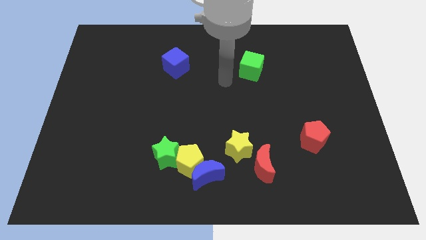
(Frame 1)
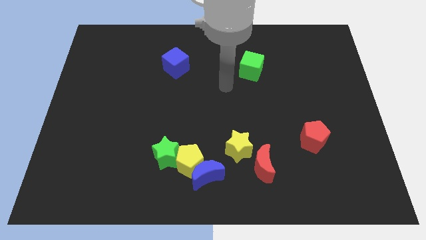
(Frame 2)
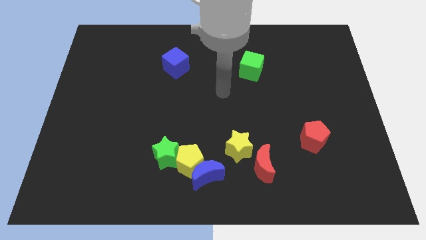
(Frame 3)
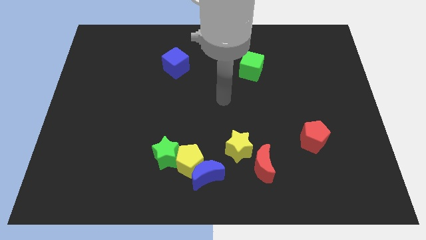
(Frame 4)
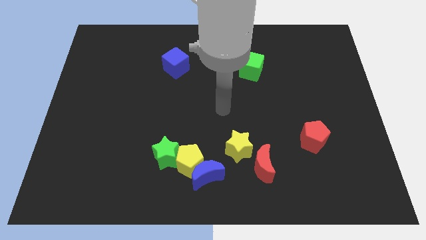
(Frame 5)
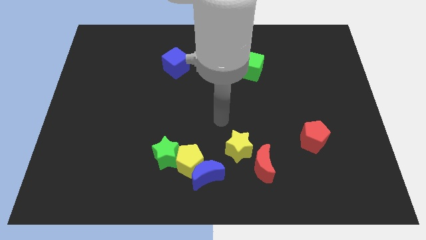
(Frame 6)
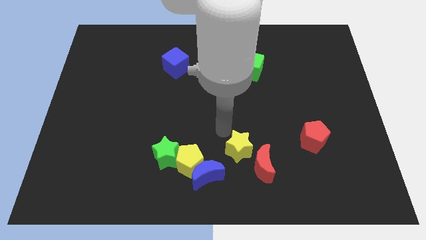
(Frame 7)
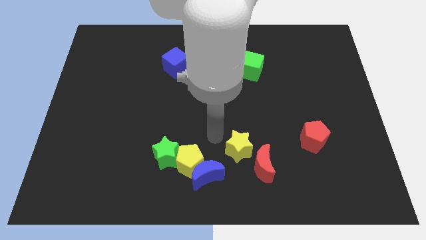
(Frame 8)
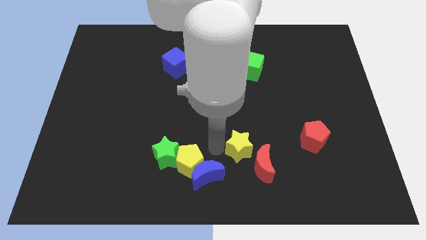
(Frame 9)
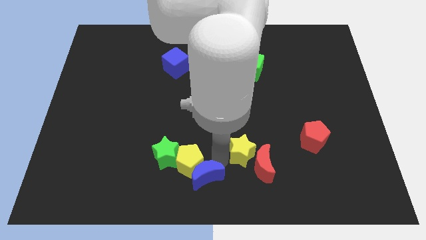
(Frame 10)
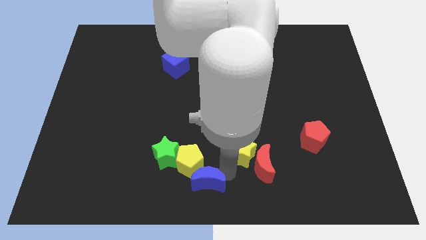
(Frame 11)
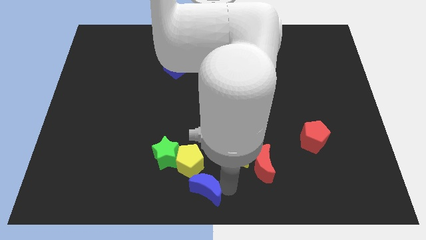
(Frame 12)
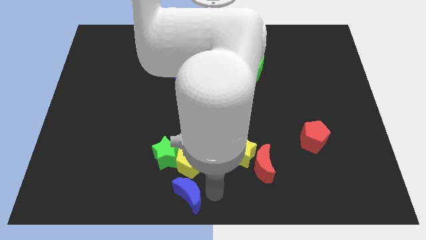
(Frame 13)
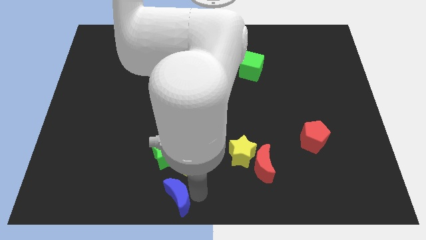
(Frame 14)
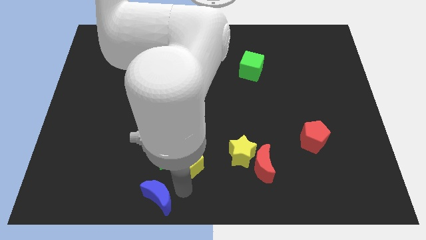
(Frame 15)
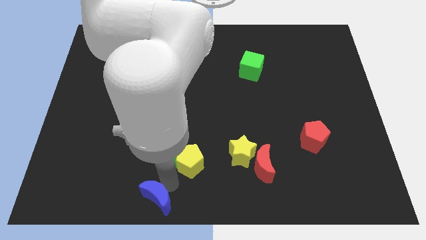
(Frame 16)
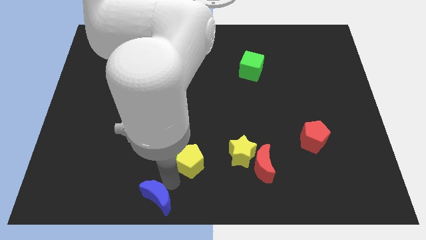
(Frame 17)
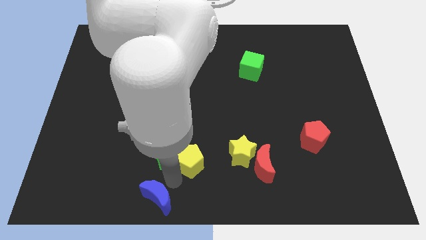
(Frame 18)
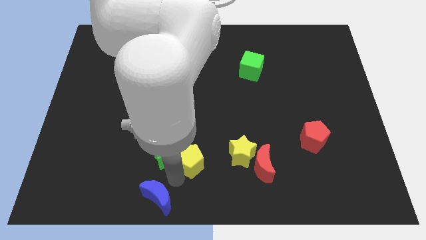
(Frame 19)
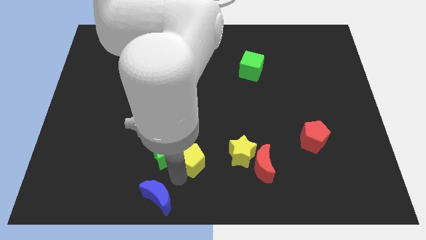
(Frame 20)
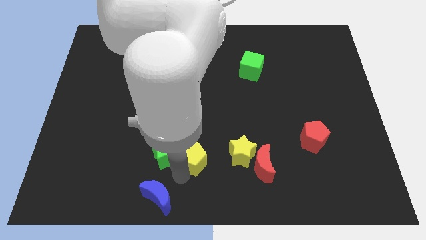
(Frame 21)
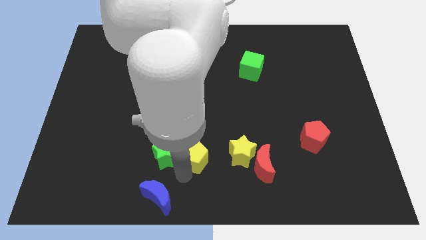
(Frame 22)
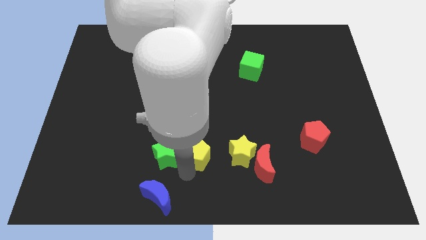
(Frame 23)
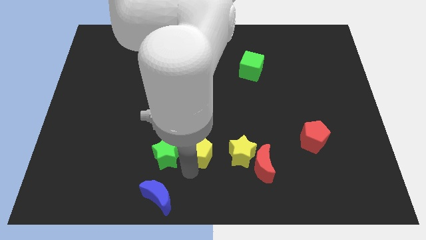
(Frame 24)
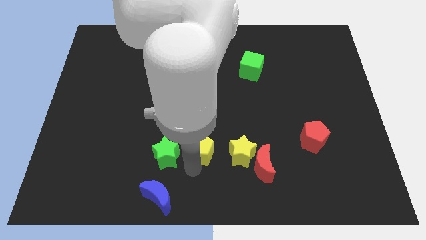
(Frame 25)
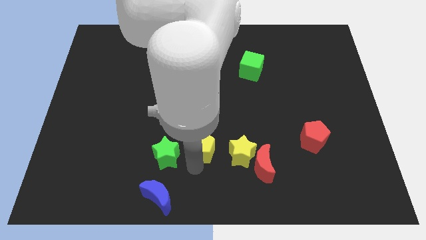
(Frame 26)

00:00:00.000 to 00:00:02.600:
separate the yellow pentagon from the blue moon and green star

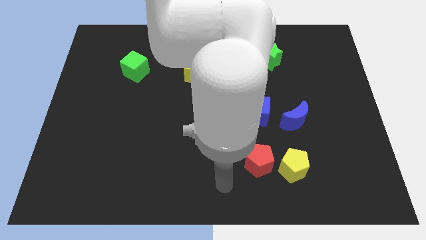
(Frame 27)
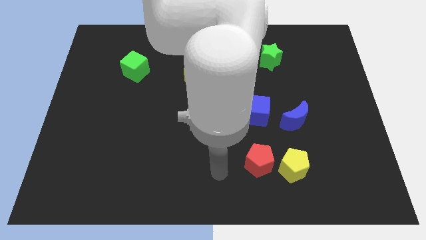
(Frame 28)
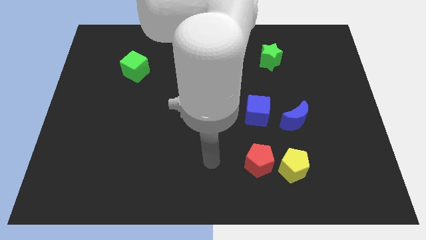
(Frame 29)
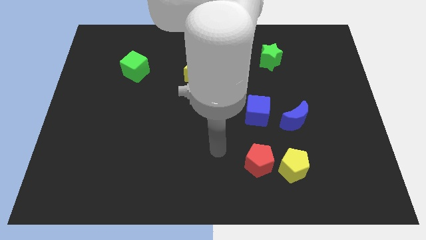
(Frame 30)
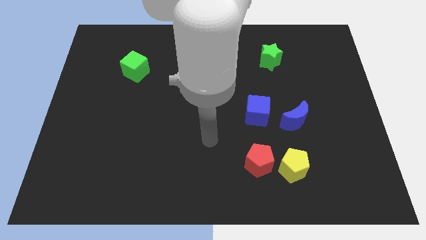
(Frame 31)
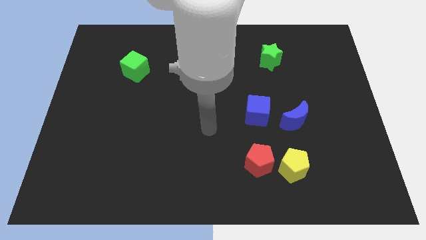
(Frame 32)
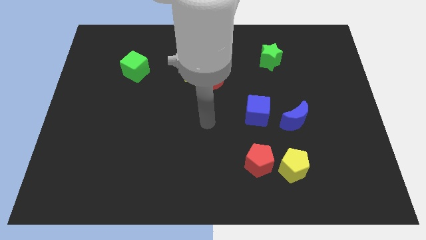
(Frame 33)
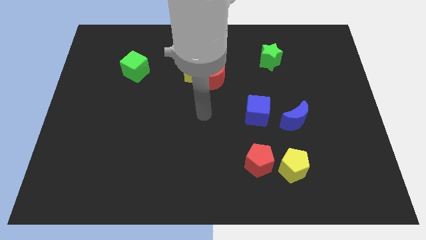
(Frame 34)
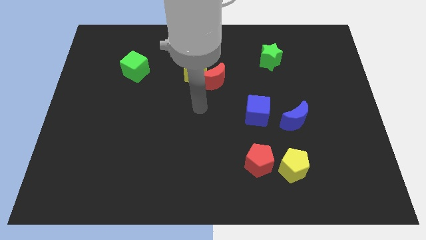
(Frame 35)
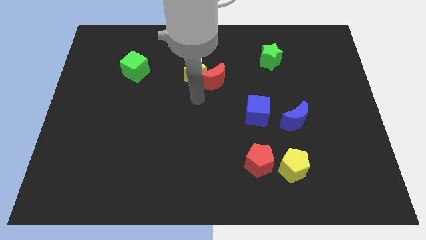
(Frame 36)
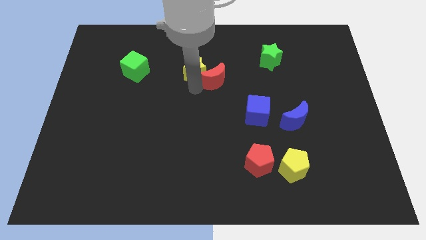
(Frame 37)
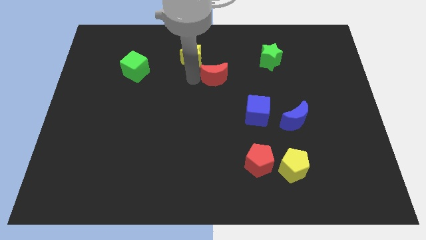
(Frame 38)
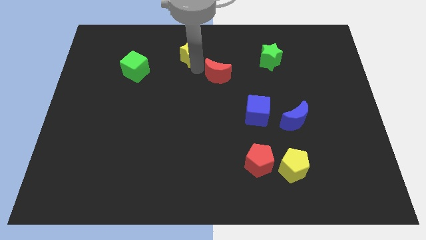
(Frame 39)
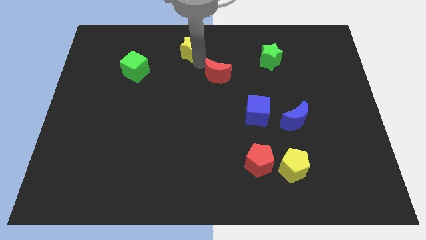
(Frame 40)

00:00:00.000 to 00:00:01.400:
pull the red moon apart from the yellow star

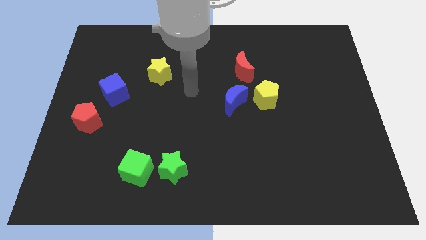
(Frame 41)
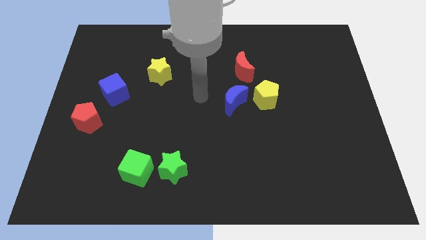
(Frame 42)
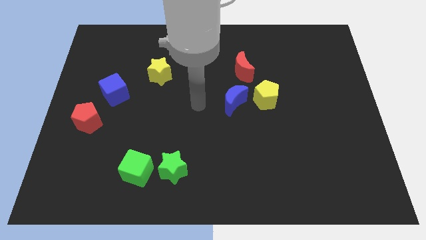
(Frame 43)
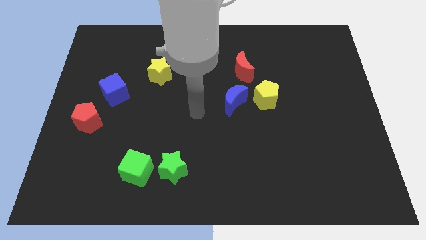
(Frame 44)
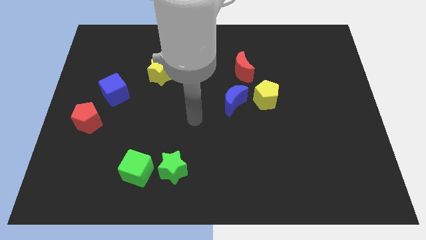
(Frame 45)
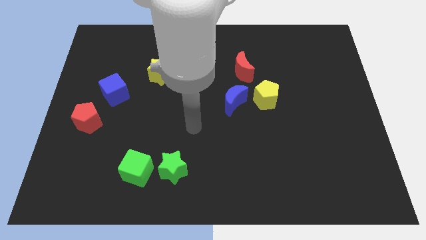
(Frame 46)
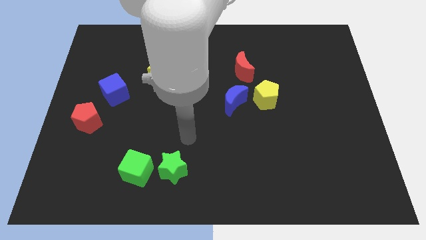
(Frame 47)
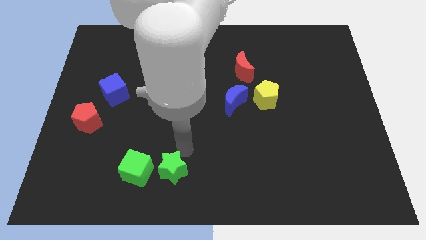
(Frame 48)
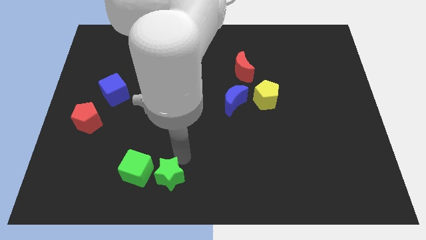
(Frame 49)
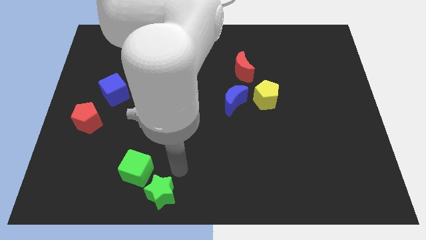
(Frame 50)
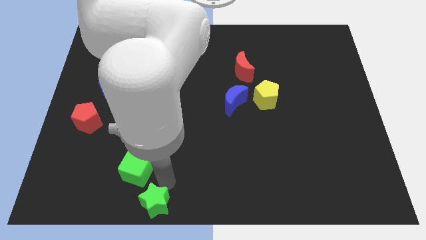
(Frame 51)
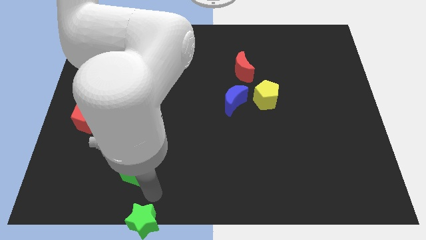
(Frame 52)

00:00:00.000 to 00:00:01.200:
separate the green cube from the green star

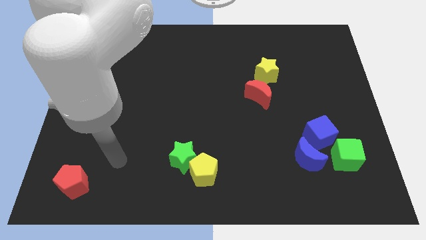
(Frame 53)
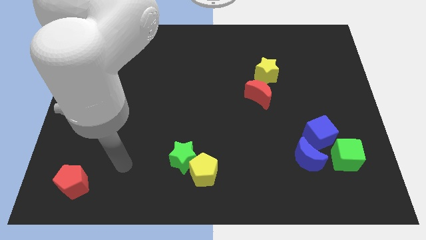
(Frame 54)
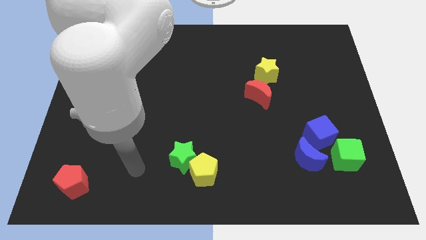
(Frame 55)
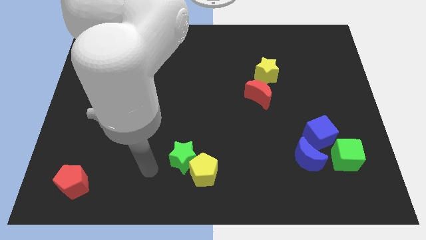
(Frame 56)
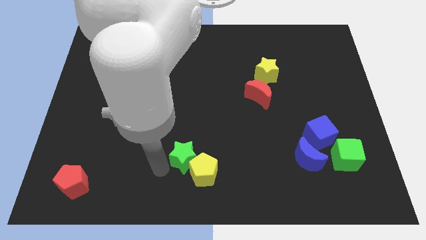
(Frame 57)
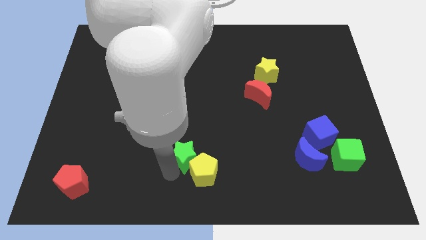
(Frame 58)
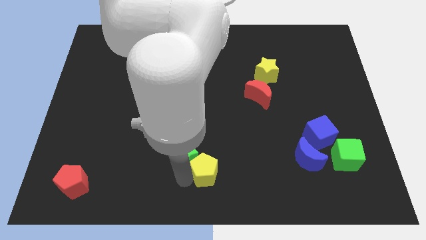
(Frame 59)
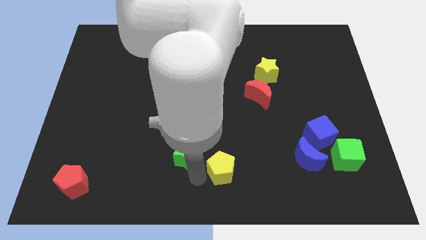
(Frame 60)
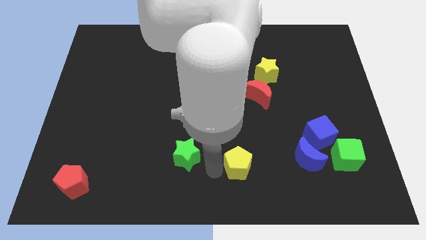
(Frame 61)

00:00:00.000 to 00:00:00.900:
pull the green star apart from the yellow pentagon

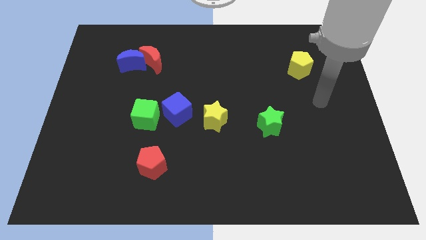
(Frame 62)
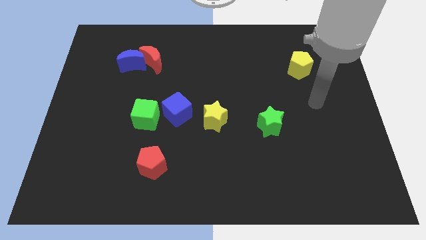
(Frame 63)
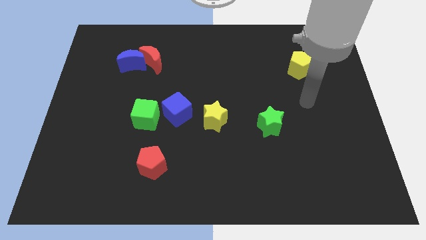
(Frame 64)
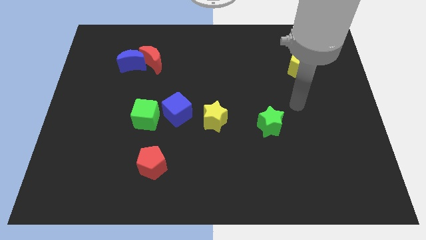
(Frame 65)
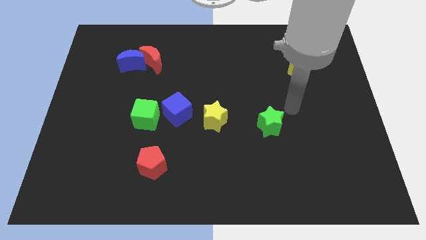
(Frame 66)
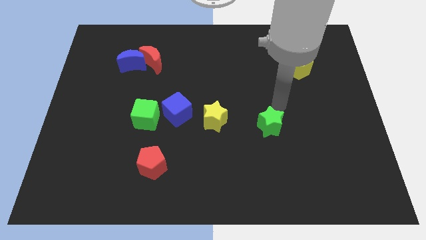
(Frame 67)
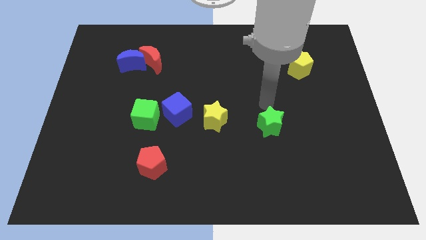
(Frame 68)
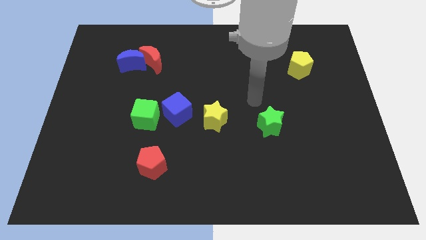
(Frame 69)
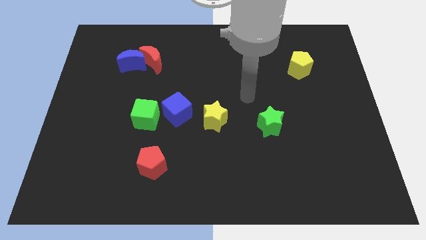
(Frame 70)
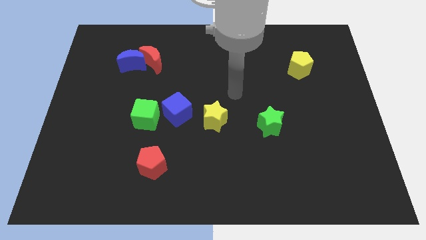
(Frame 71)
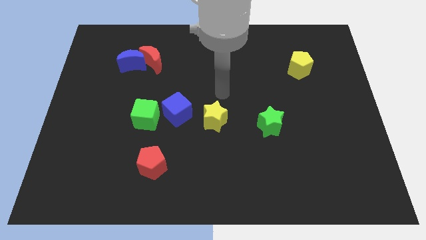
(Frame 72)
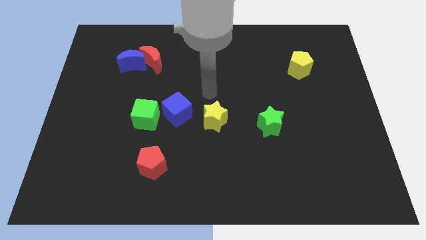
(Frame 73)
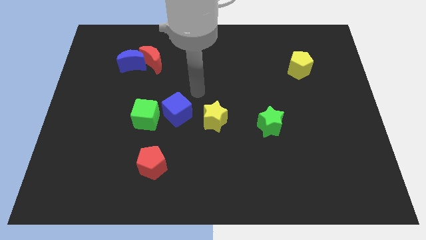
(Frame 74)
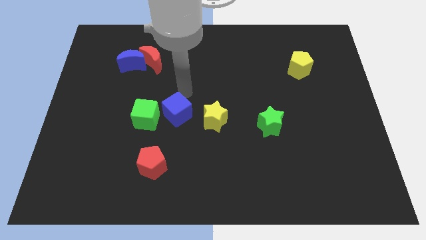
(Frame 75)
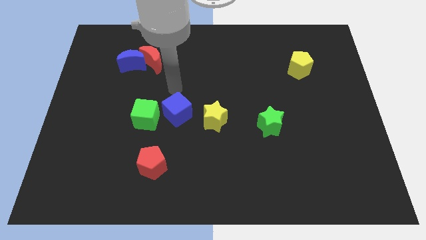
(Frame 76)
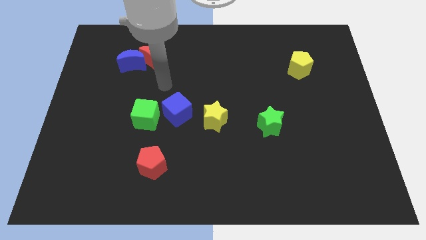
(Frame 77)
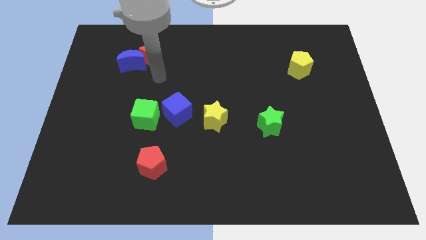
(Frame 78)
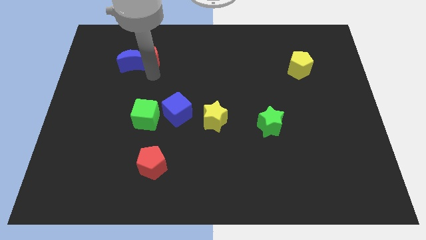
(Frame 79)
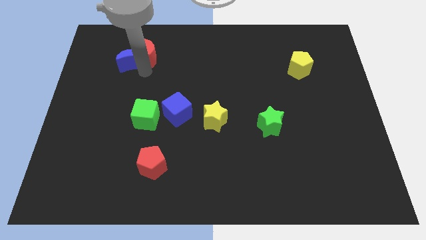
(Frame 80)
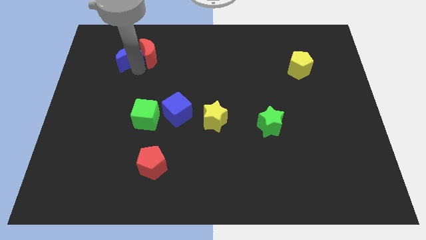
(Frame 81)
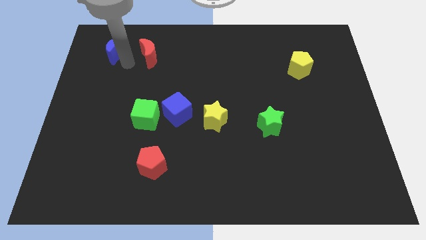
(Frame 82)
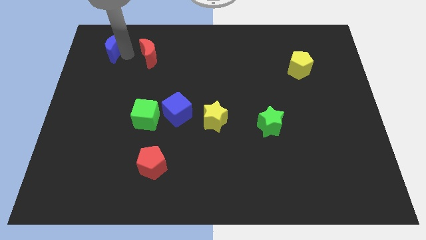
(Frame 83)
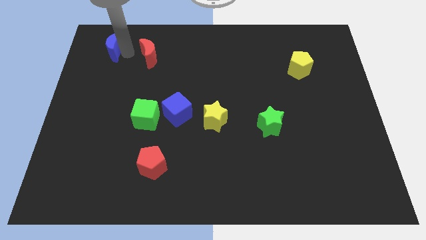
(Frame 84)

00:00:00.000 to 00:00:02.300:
separate the red moon from the blue moon

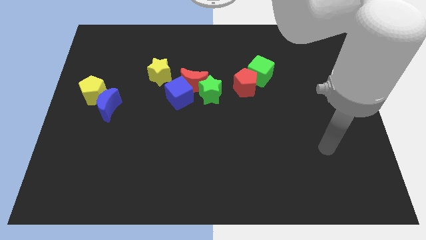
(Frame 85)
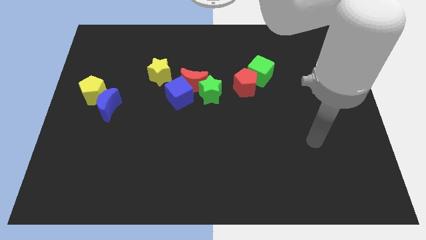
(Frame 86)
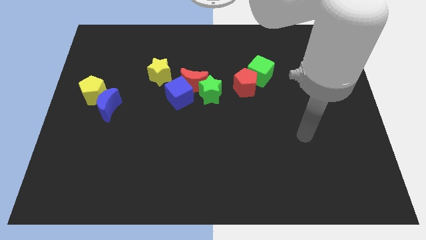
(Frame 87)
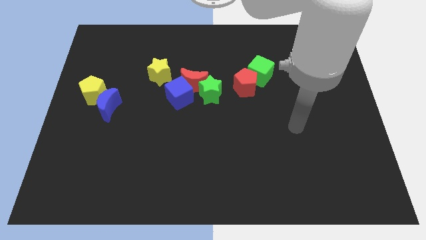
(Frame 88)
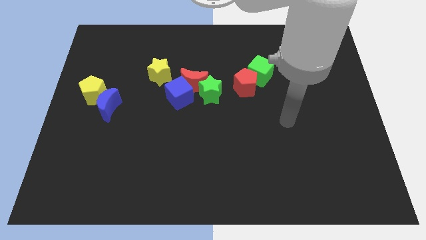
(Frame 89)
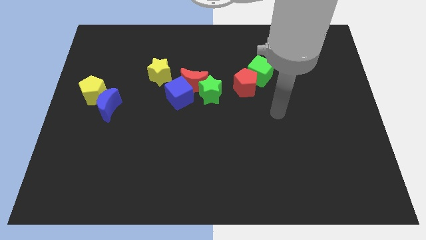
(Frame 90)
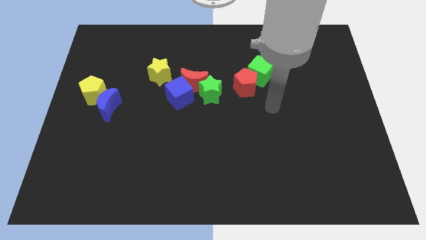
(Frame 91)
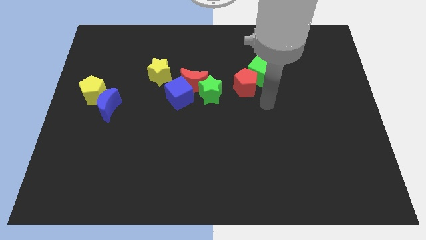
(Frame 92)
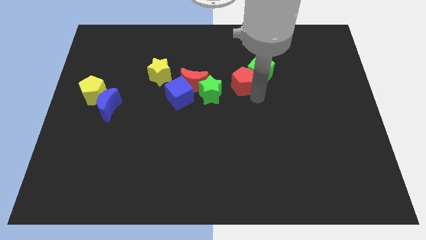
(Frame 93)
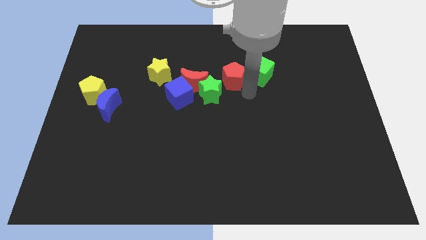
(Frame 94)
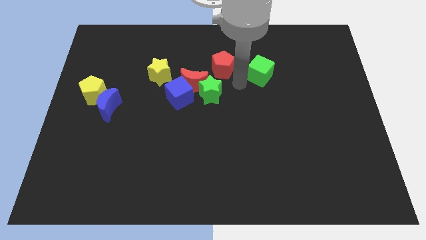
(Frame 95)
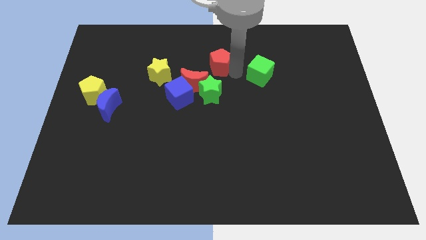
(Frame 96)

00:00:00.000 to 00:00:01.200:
move the green cube away from the red pentagon
